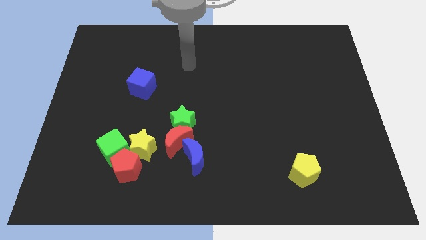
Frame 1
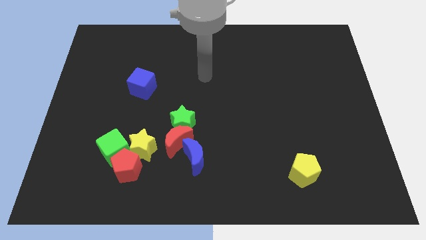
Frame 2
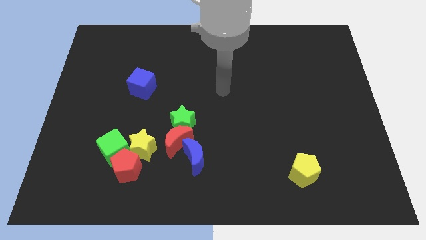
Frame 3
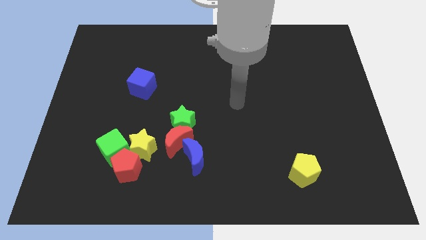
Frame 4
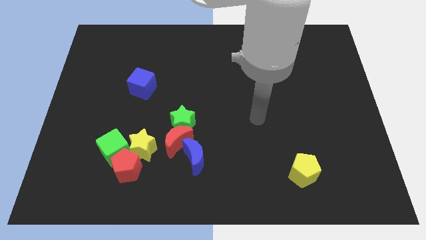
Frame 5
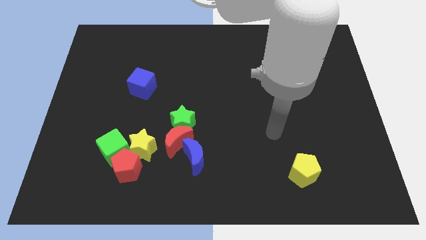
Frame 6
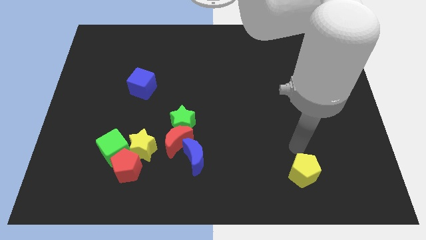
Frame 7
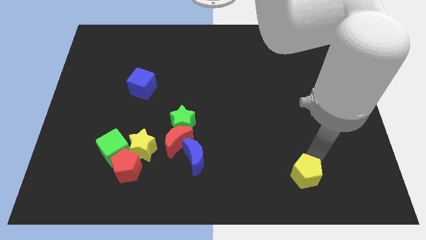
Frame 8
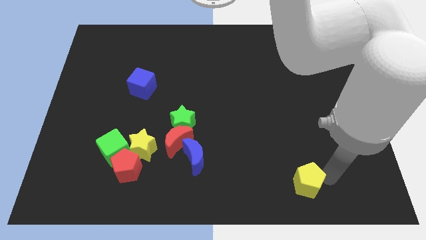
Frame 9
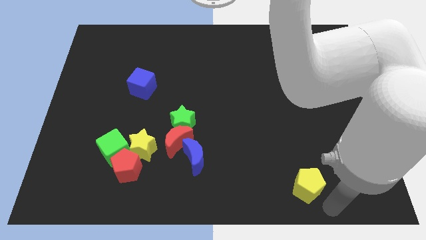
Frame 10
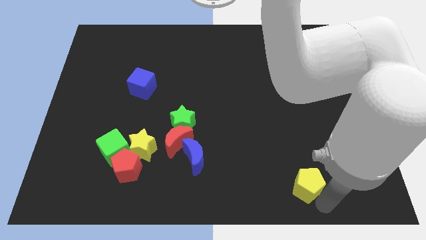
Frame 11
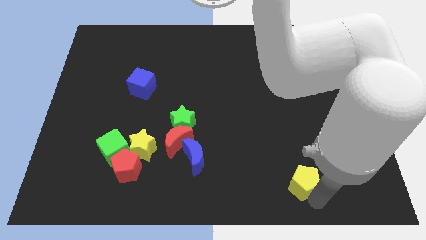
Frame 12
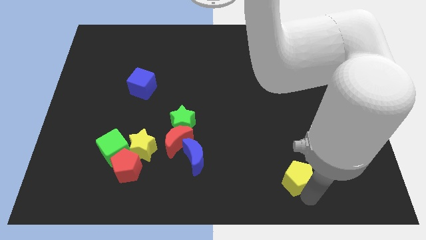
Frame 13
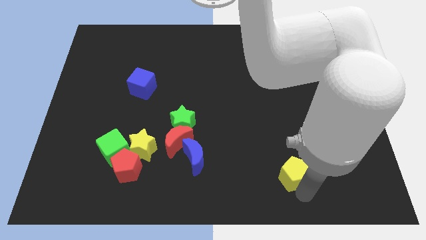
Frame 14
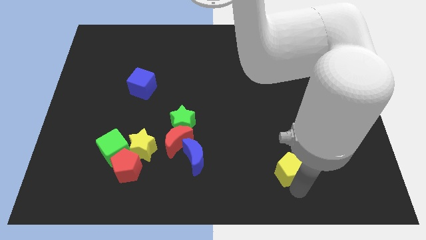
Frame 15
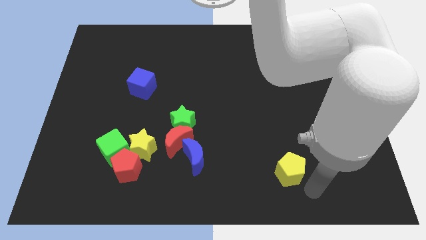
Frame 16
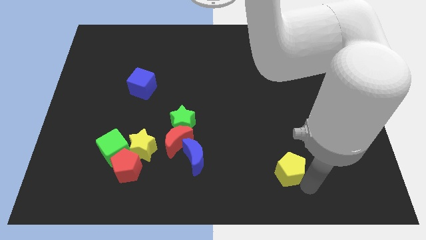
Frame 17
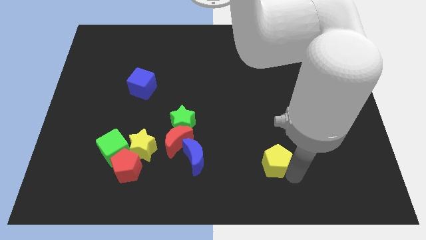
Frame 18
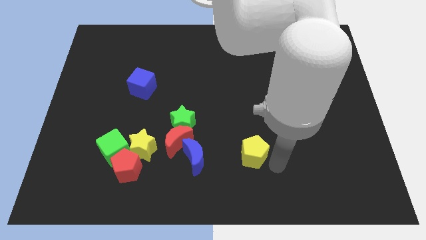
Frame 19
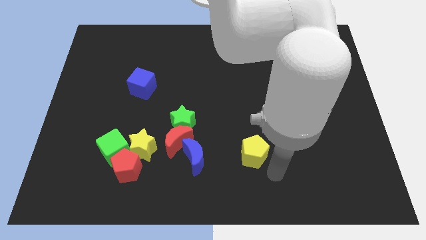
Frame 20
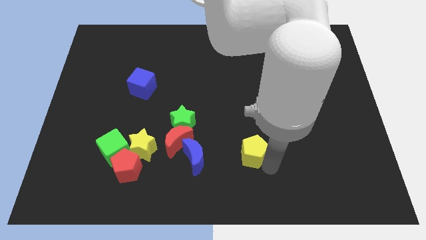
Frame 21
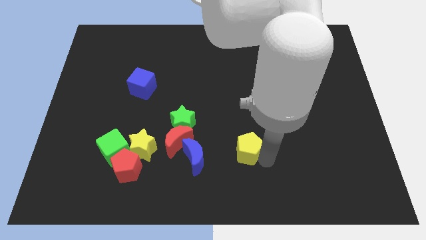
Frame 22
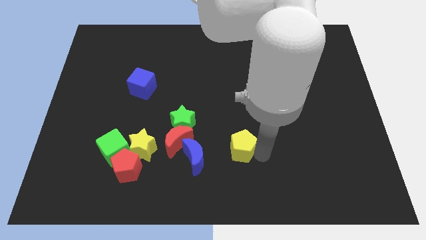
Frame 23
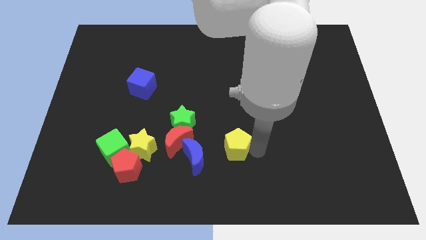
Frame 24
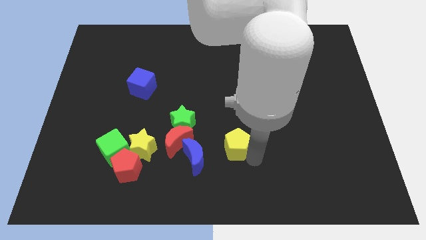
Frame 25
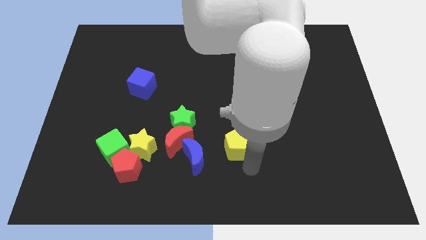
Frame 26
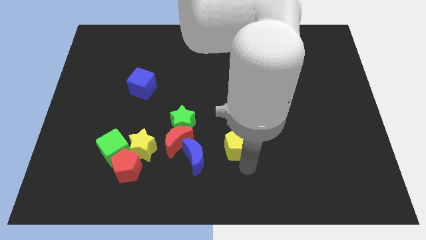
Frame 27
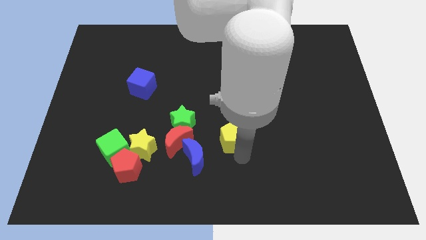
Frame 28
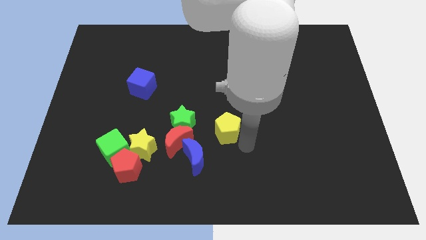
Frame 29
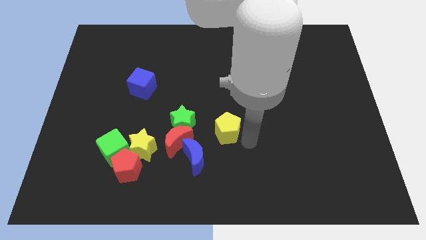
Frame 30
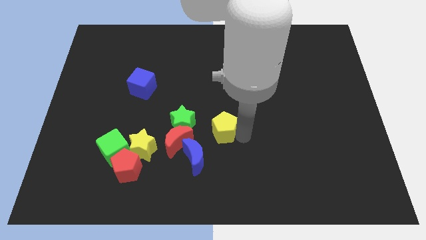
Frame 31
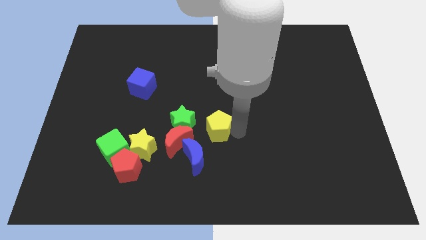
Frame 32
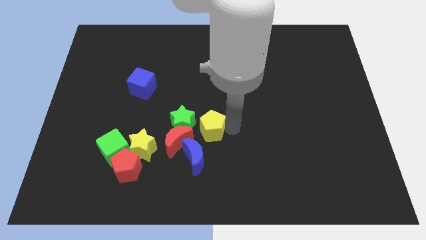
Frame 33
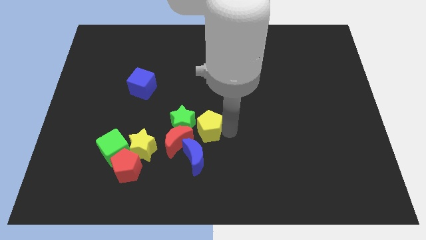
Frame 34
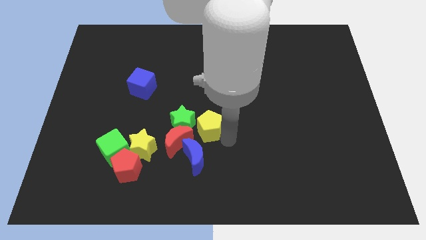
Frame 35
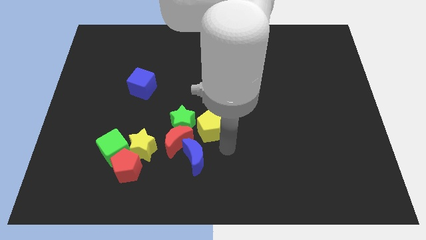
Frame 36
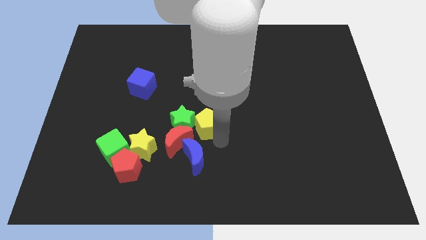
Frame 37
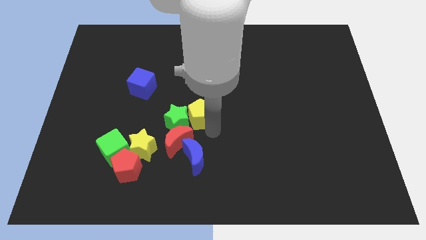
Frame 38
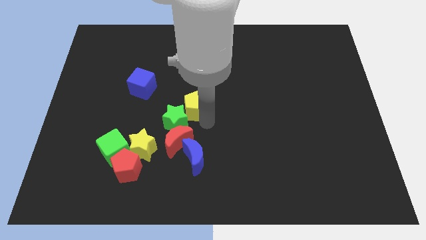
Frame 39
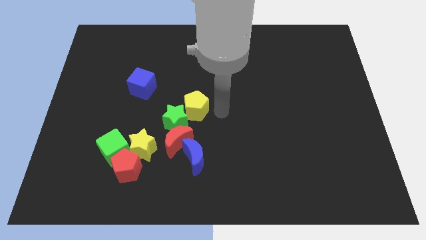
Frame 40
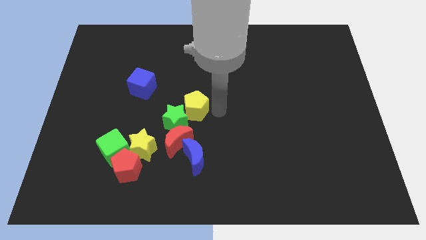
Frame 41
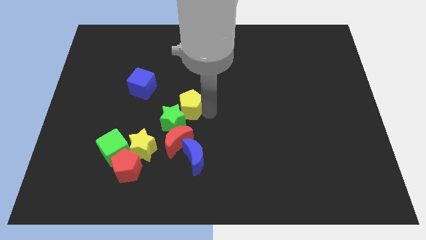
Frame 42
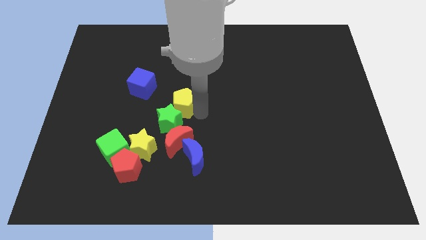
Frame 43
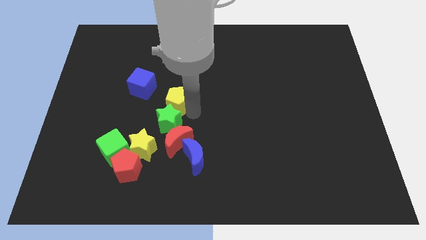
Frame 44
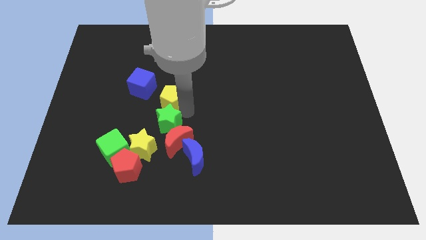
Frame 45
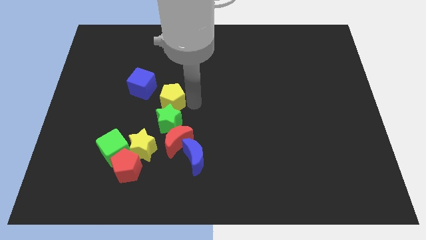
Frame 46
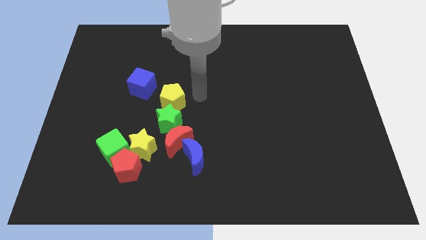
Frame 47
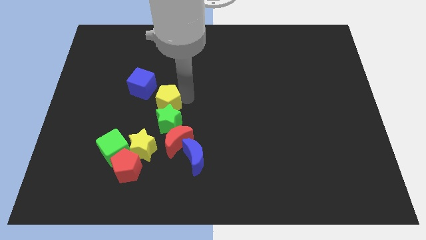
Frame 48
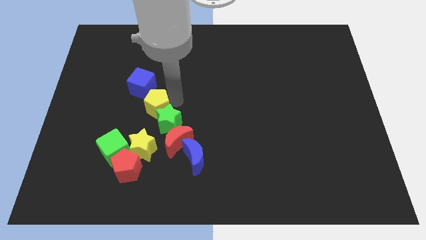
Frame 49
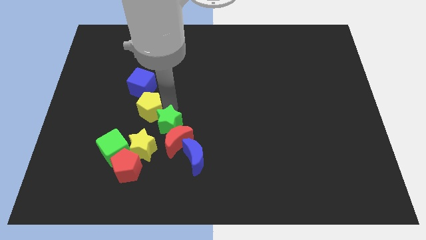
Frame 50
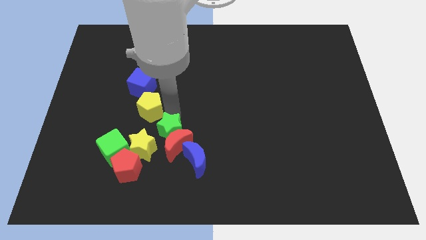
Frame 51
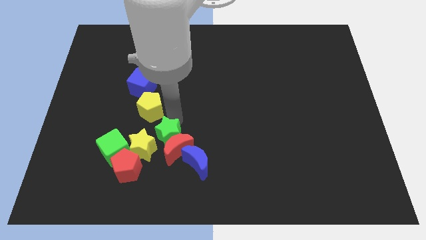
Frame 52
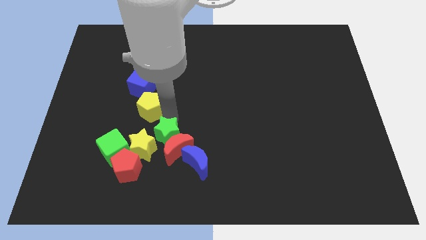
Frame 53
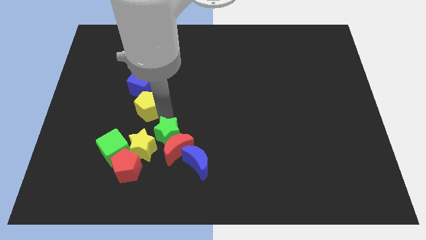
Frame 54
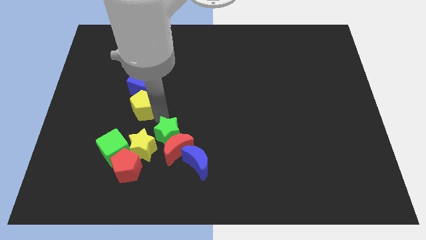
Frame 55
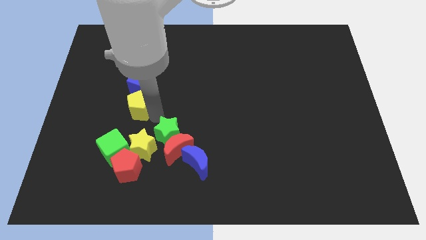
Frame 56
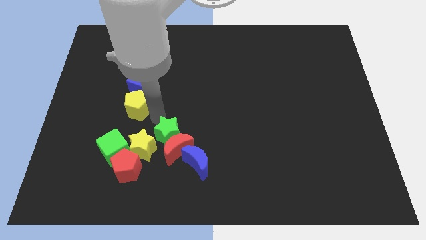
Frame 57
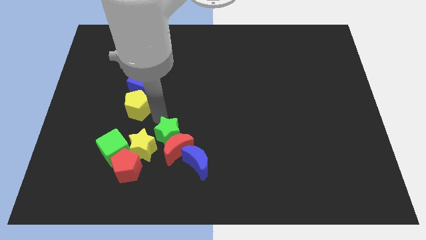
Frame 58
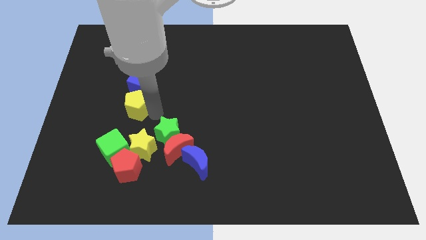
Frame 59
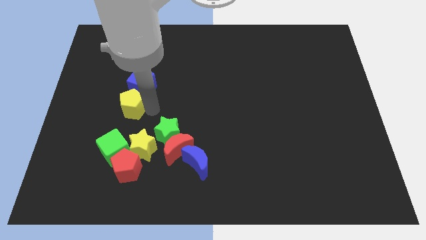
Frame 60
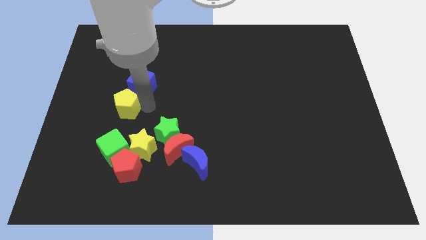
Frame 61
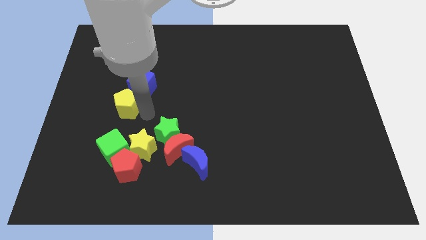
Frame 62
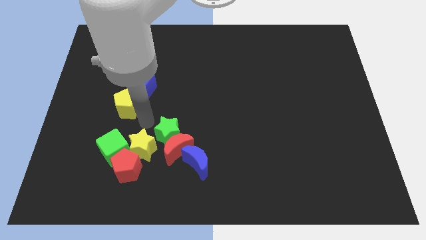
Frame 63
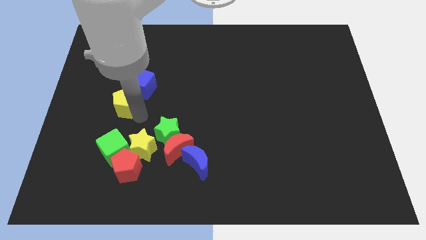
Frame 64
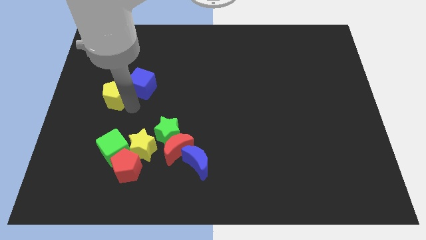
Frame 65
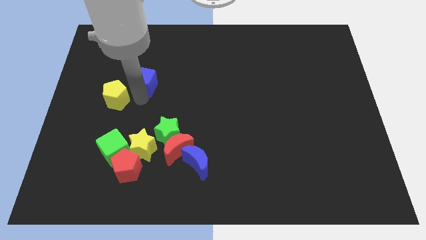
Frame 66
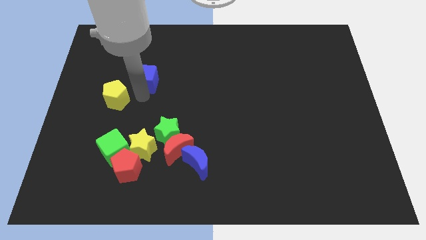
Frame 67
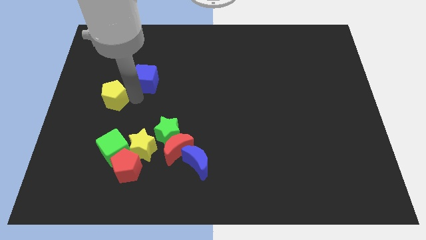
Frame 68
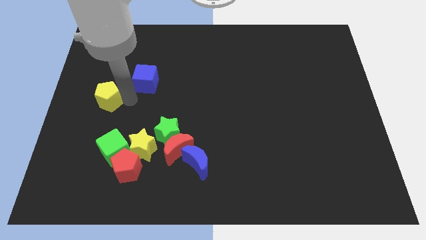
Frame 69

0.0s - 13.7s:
slide the yellow pentagon to the center left

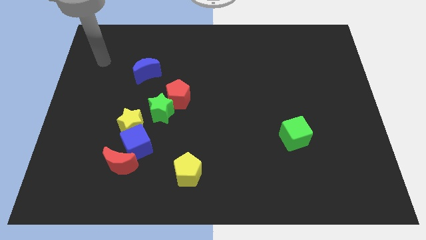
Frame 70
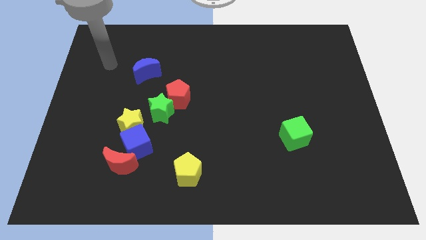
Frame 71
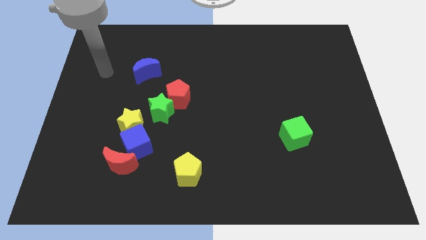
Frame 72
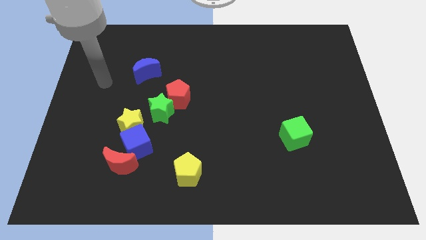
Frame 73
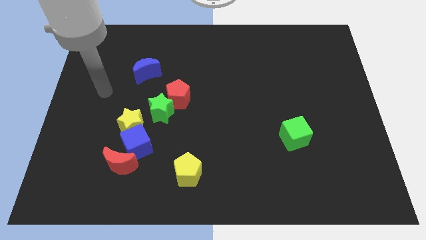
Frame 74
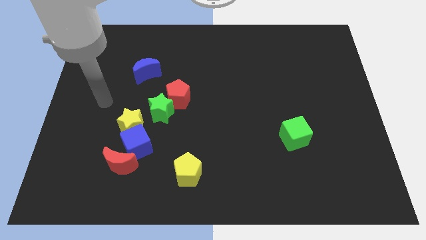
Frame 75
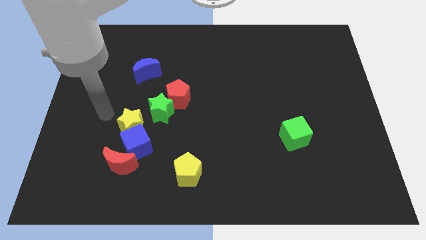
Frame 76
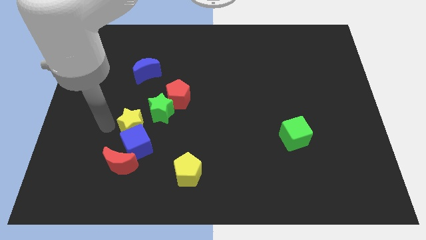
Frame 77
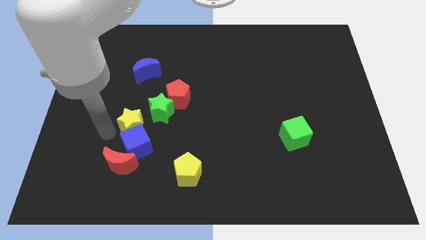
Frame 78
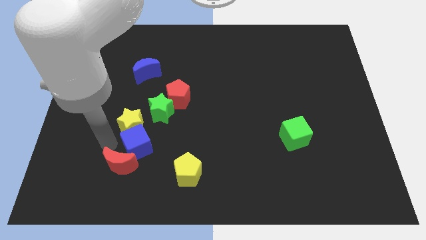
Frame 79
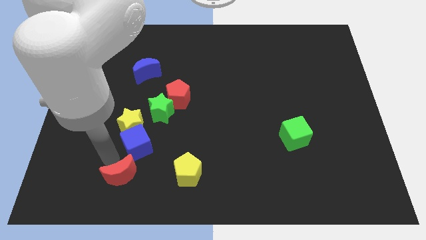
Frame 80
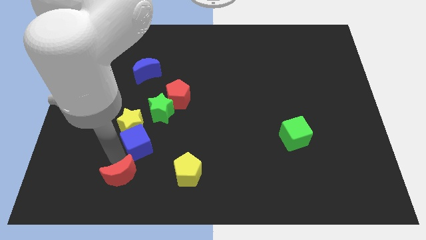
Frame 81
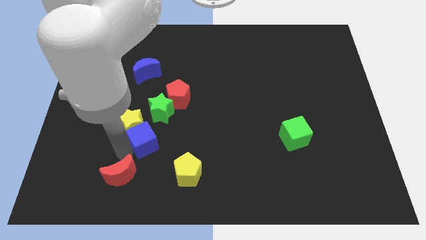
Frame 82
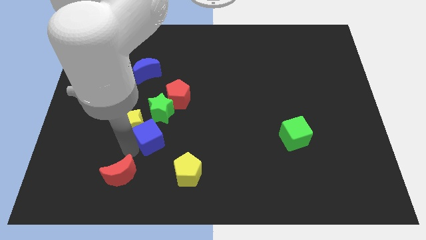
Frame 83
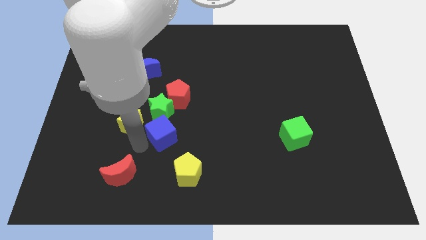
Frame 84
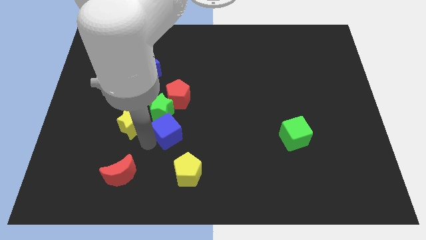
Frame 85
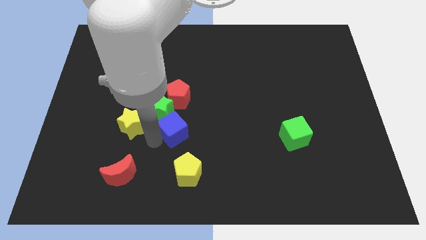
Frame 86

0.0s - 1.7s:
put the blue cube to the center of the board
